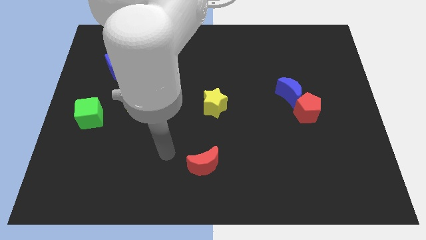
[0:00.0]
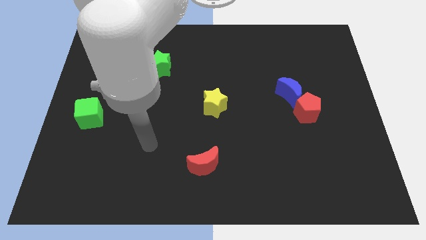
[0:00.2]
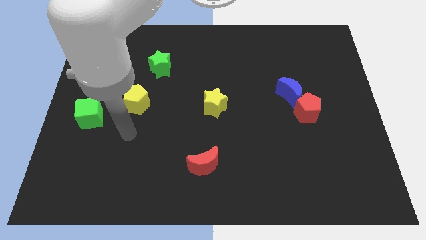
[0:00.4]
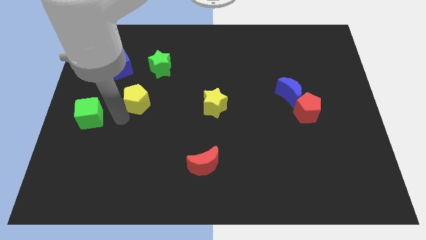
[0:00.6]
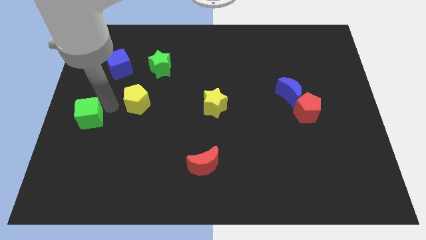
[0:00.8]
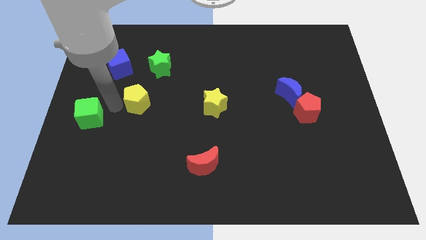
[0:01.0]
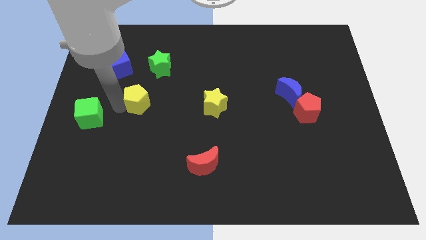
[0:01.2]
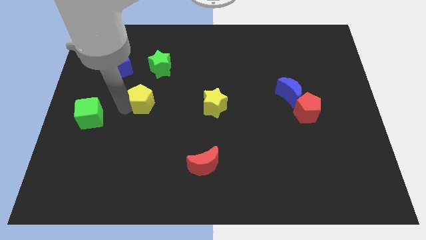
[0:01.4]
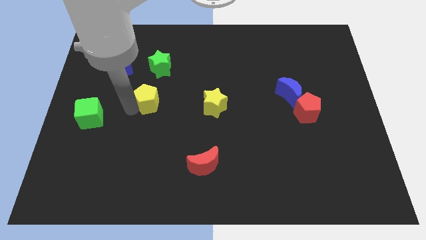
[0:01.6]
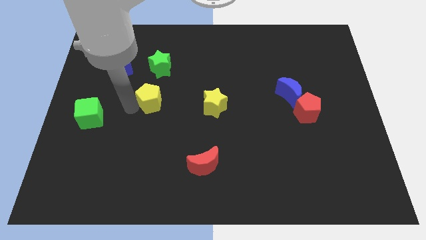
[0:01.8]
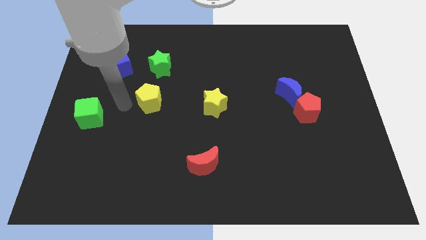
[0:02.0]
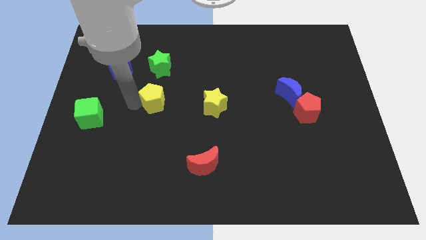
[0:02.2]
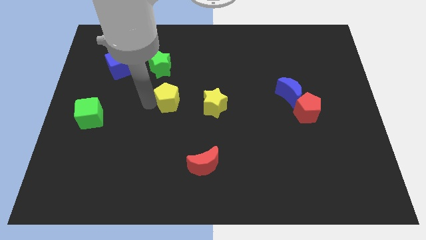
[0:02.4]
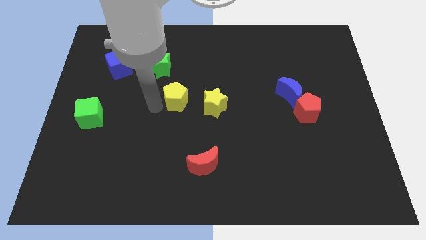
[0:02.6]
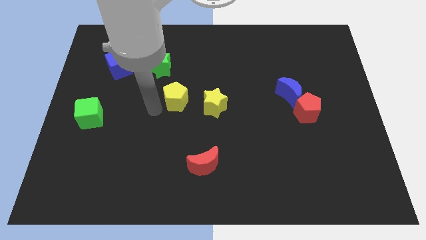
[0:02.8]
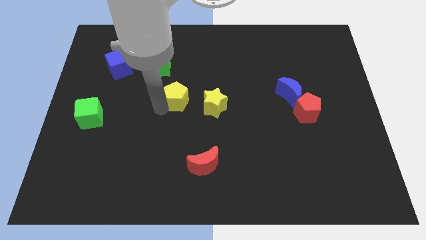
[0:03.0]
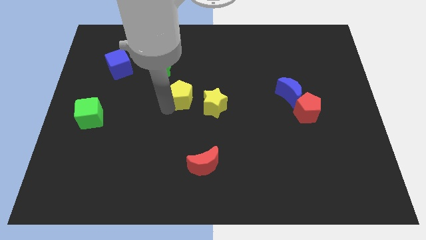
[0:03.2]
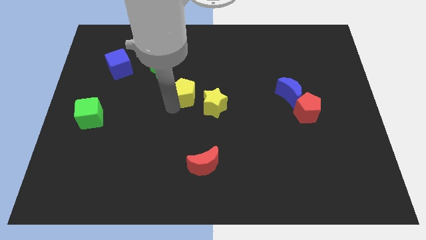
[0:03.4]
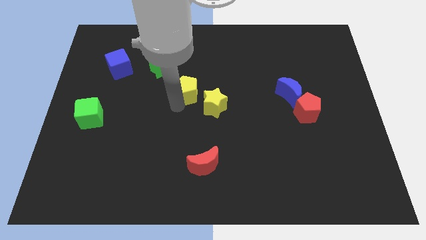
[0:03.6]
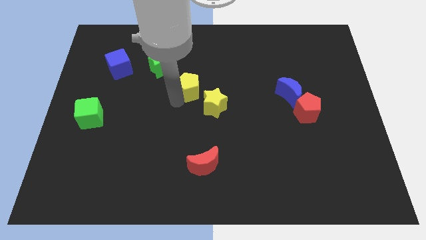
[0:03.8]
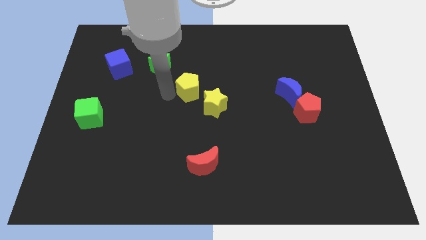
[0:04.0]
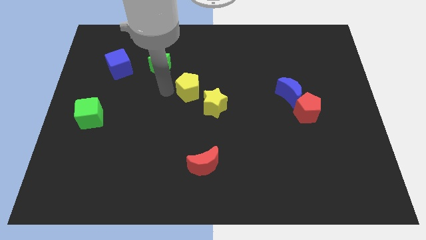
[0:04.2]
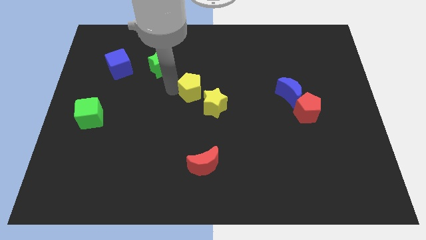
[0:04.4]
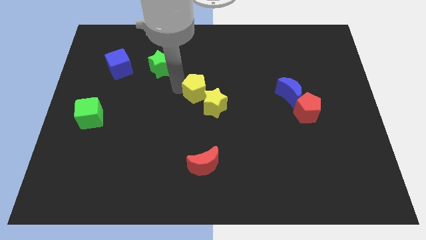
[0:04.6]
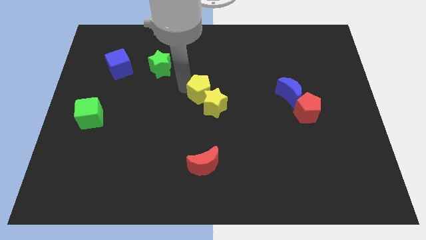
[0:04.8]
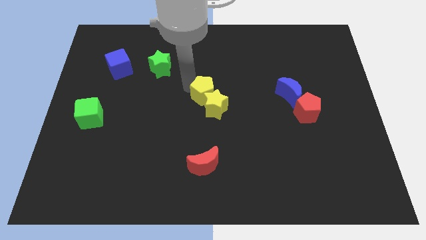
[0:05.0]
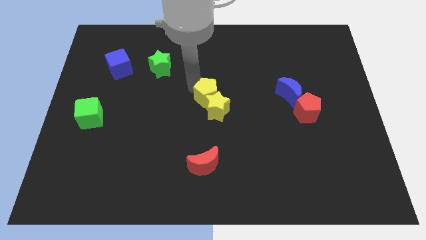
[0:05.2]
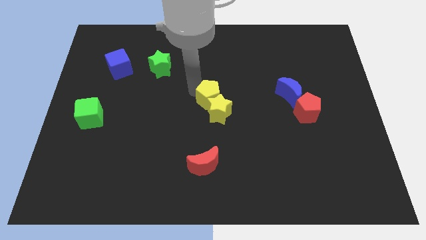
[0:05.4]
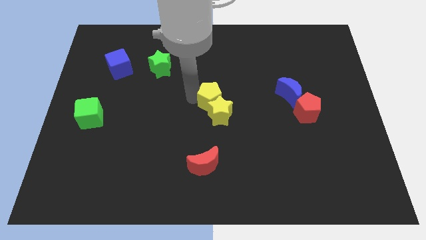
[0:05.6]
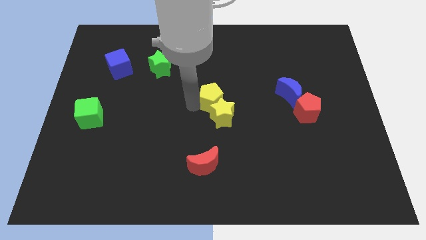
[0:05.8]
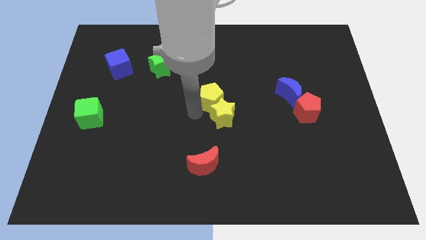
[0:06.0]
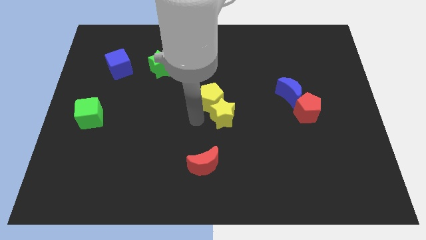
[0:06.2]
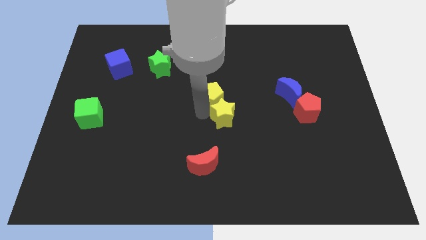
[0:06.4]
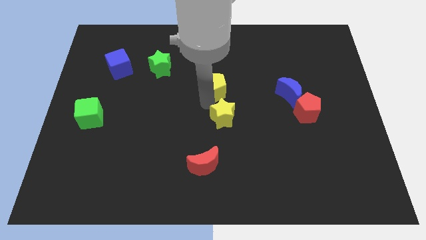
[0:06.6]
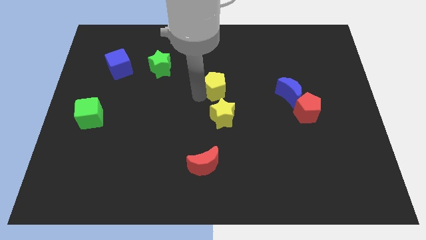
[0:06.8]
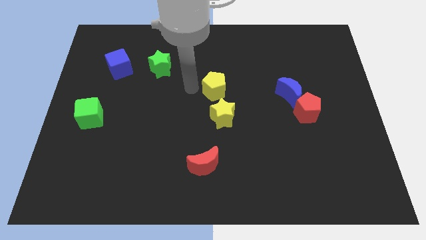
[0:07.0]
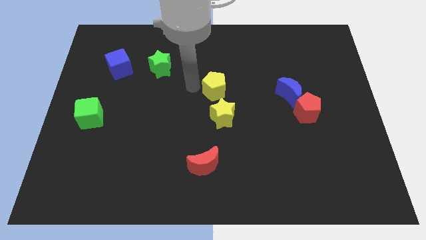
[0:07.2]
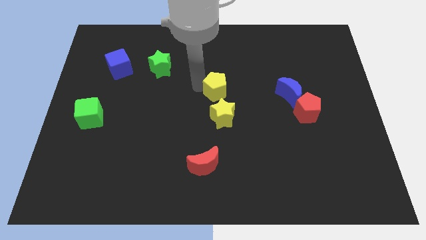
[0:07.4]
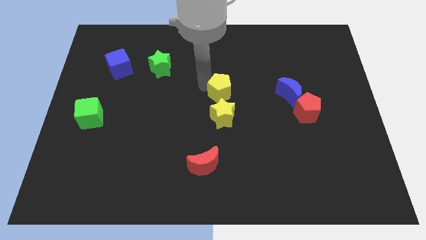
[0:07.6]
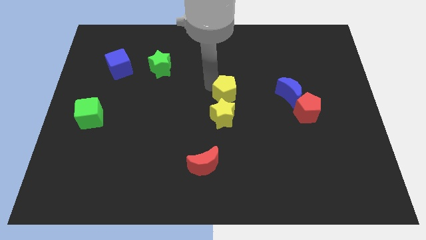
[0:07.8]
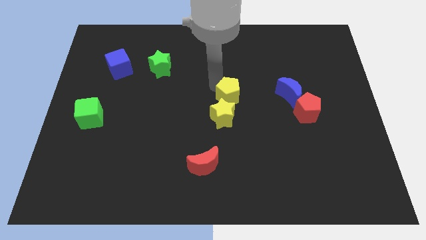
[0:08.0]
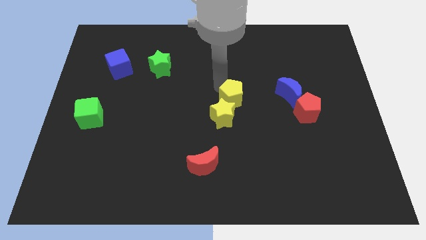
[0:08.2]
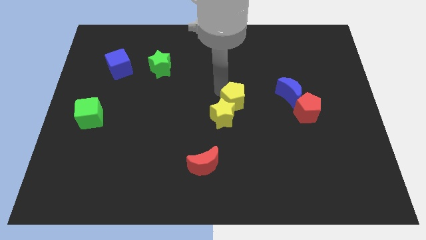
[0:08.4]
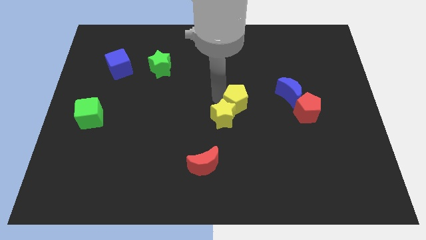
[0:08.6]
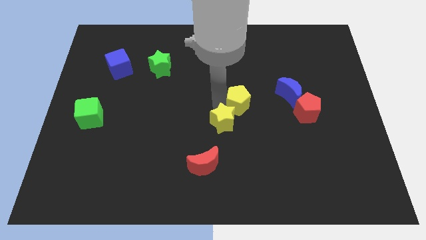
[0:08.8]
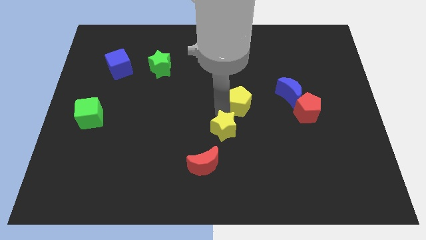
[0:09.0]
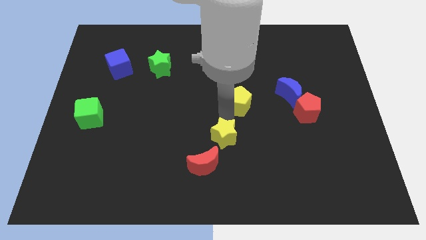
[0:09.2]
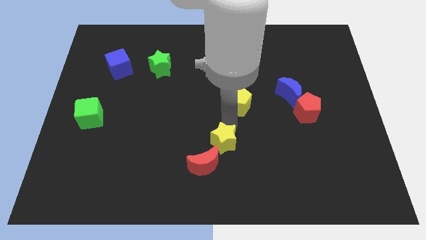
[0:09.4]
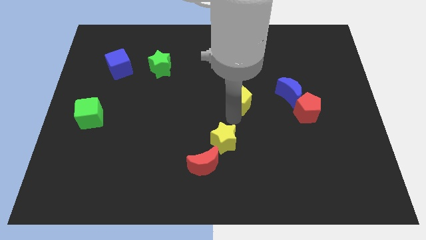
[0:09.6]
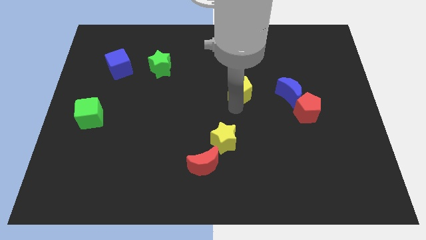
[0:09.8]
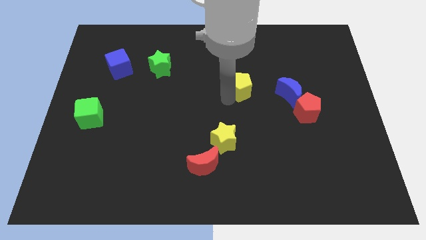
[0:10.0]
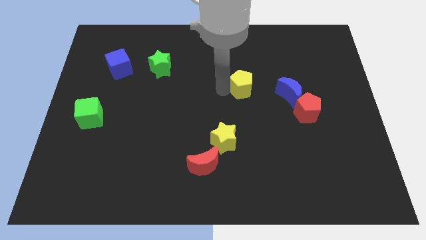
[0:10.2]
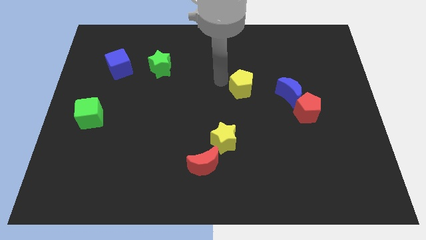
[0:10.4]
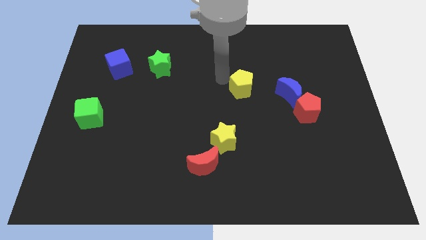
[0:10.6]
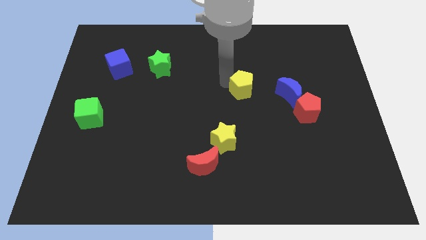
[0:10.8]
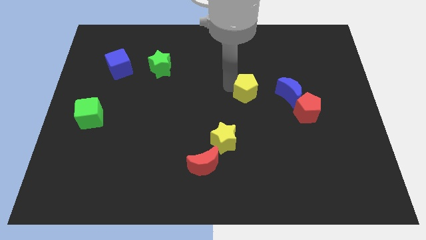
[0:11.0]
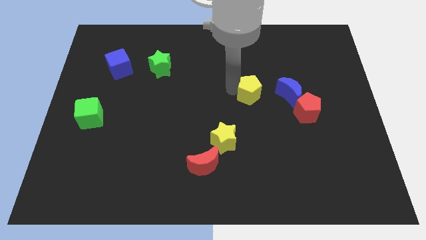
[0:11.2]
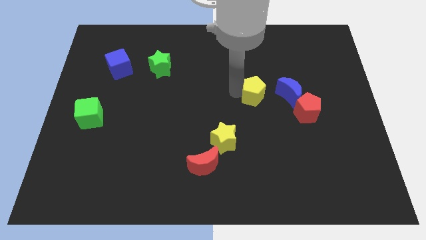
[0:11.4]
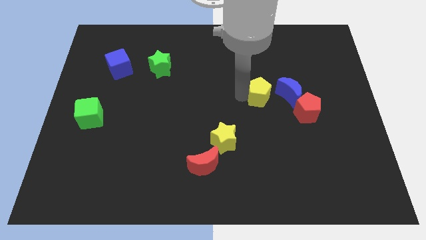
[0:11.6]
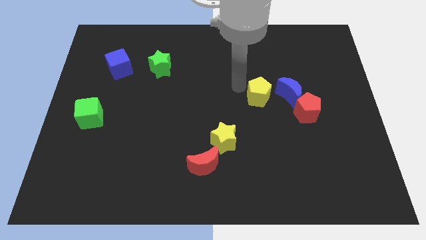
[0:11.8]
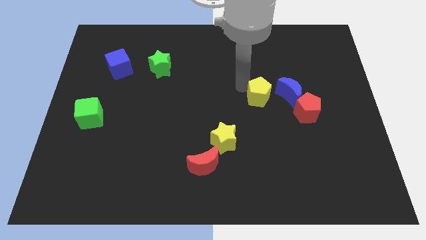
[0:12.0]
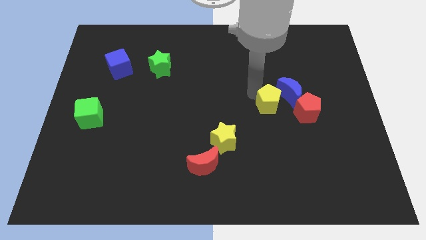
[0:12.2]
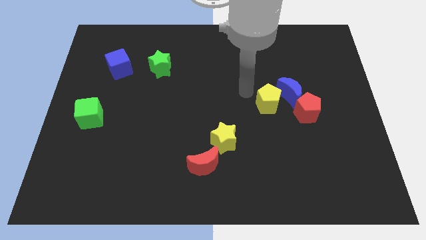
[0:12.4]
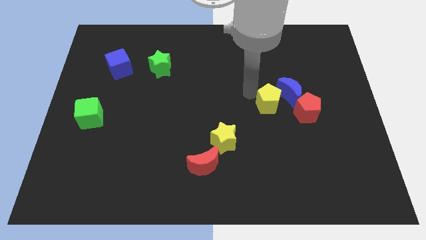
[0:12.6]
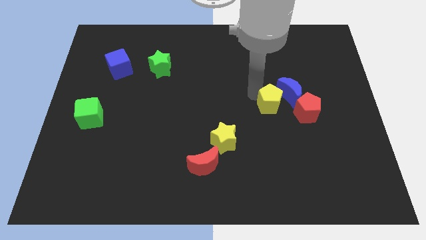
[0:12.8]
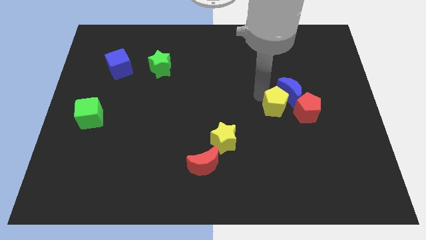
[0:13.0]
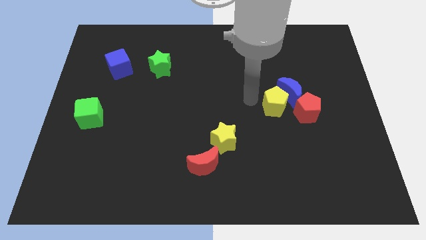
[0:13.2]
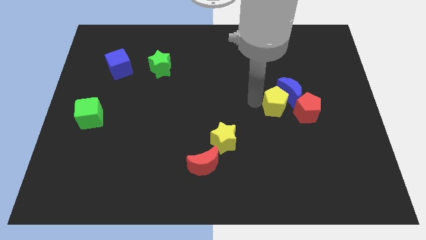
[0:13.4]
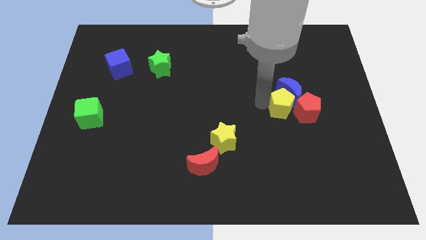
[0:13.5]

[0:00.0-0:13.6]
slide the yellow pentagon towards the red pentagon
